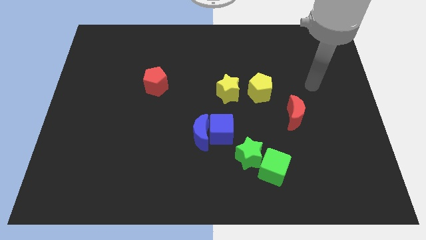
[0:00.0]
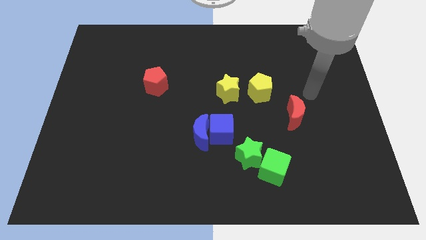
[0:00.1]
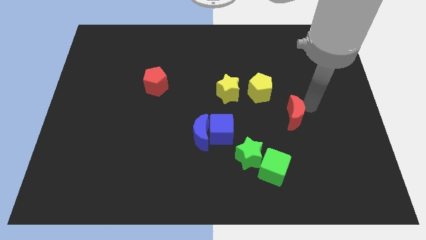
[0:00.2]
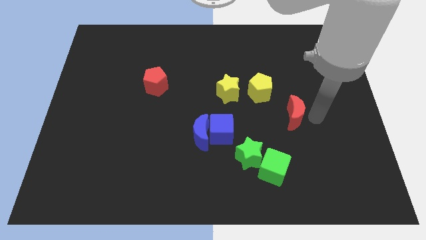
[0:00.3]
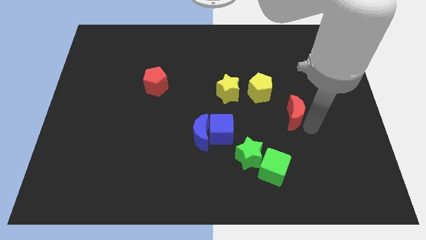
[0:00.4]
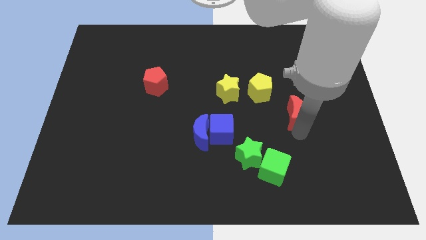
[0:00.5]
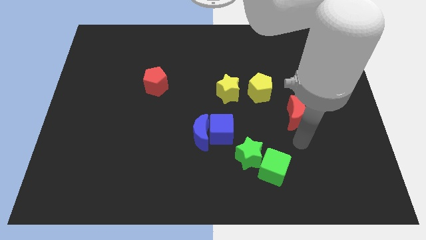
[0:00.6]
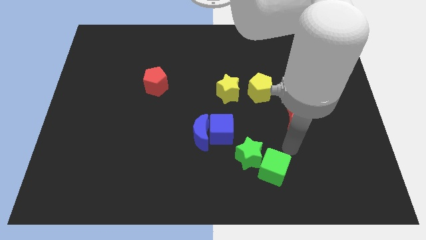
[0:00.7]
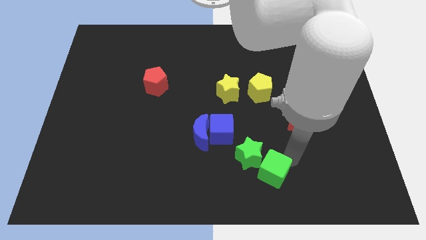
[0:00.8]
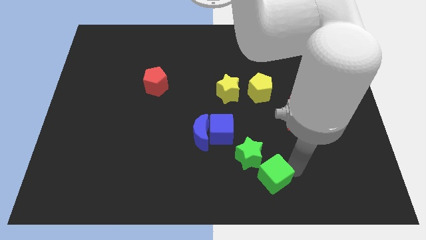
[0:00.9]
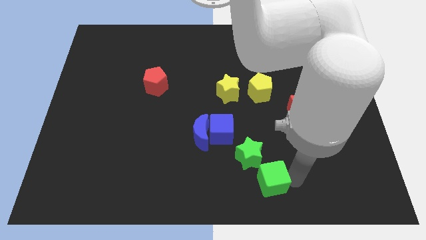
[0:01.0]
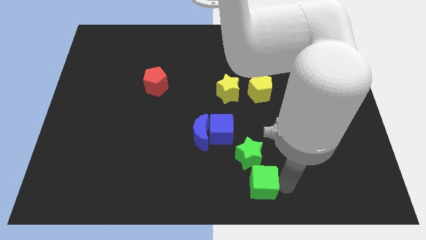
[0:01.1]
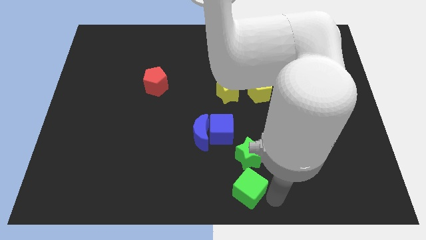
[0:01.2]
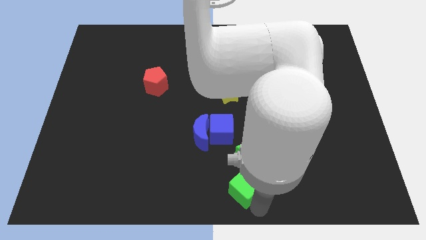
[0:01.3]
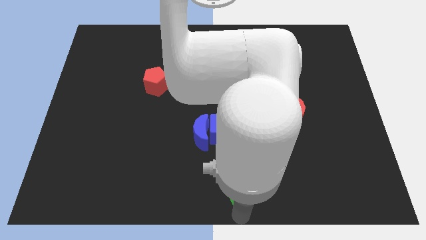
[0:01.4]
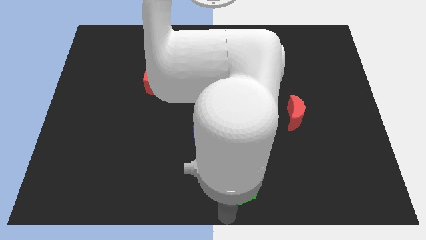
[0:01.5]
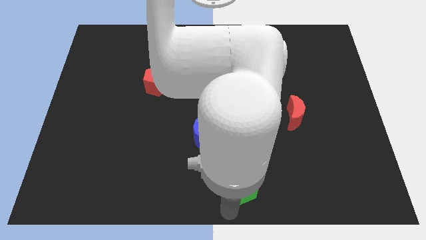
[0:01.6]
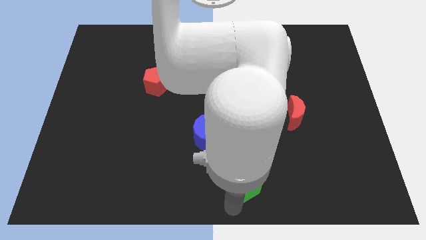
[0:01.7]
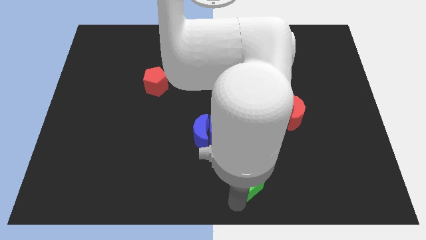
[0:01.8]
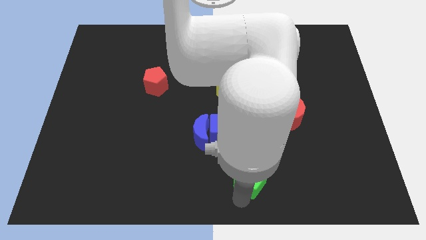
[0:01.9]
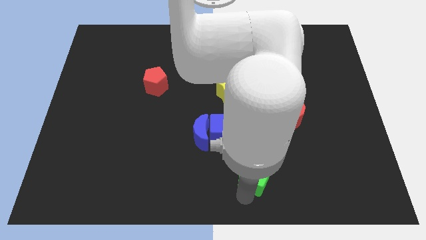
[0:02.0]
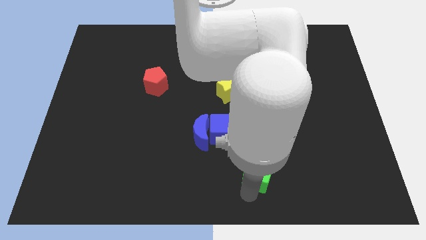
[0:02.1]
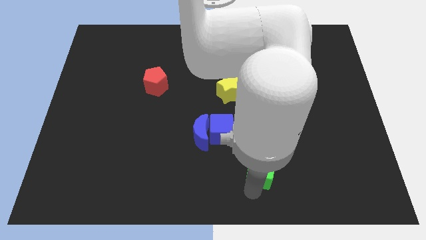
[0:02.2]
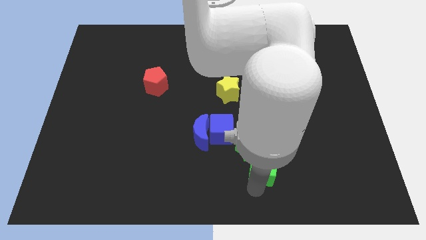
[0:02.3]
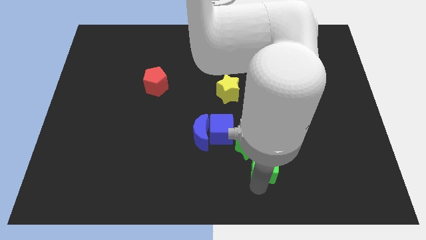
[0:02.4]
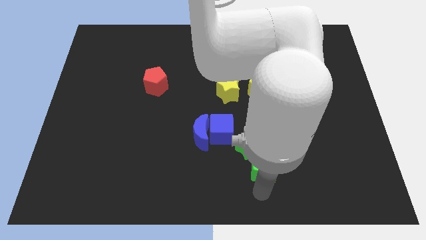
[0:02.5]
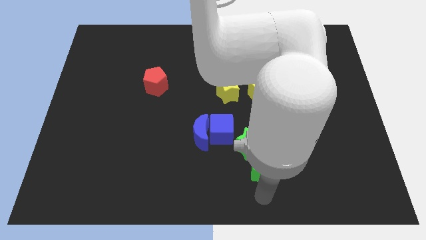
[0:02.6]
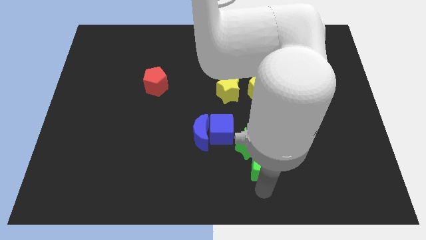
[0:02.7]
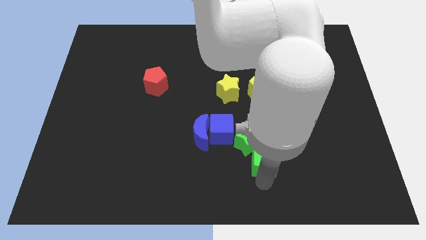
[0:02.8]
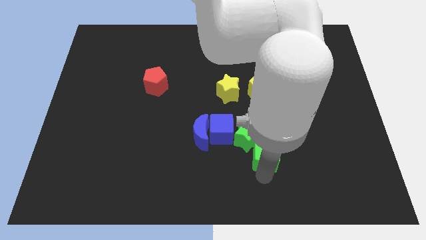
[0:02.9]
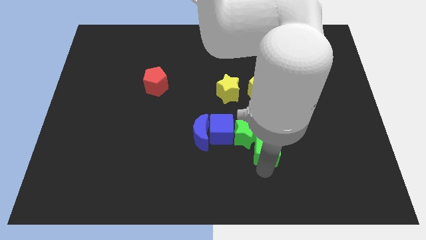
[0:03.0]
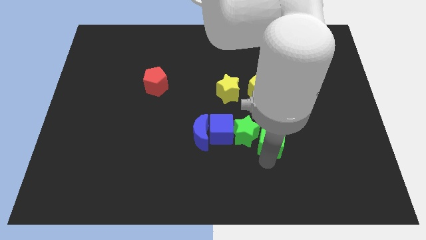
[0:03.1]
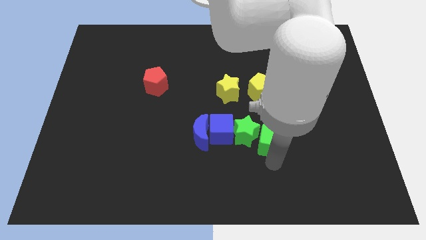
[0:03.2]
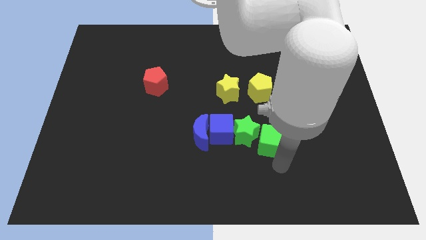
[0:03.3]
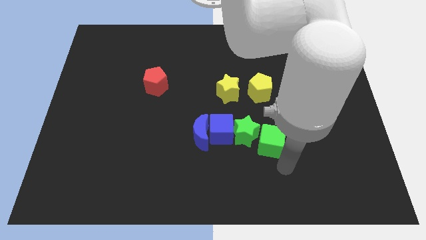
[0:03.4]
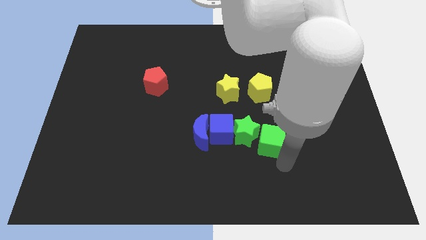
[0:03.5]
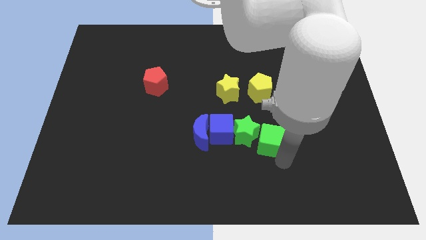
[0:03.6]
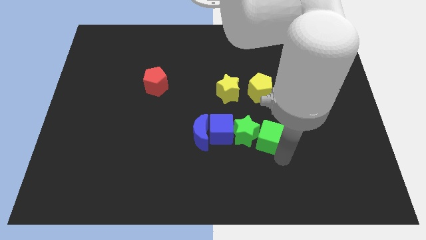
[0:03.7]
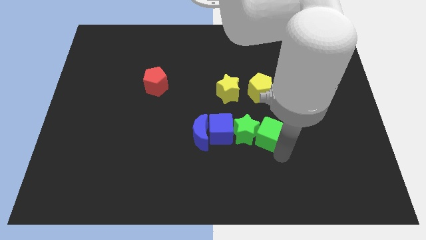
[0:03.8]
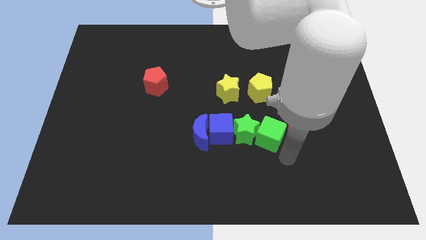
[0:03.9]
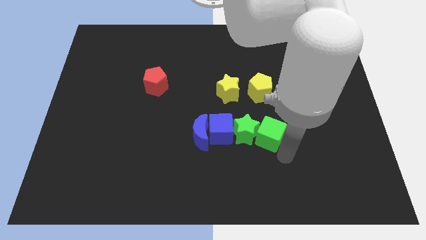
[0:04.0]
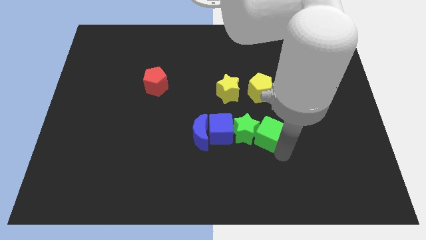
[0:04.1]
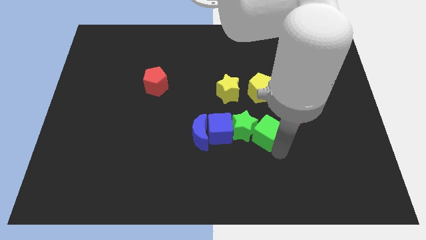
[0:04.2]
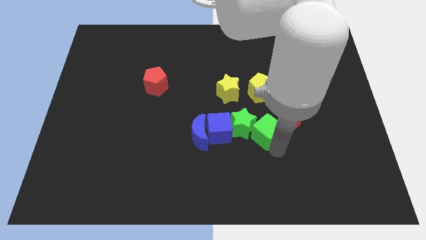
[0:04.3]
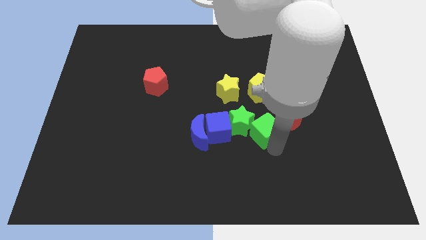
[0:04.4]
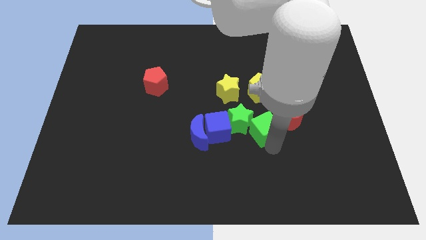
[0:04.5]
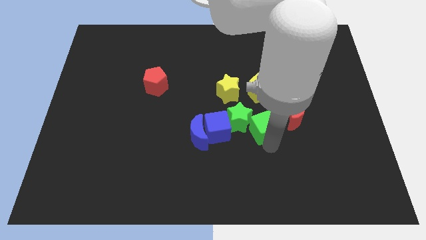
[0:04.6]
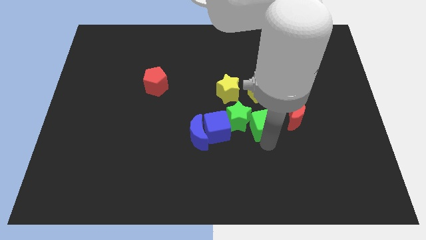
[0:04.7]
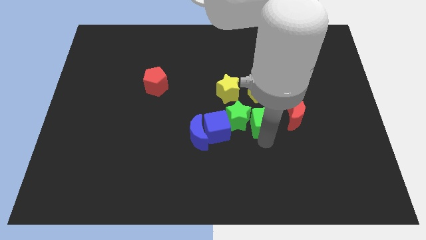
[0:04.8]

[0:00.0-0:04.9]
put the green cube diagonally down and to the right of the yellow star

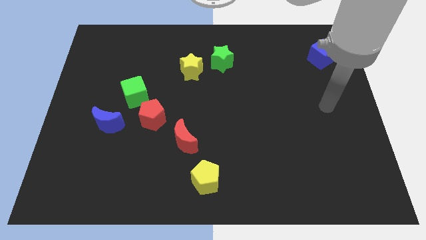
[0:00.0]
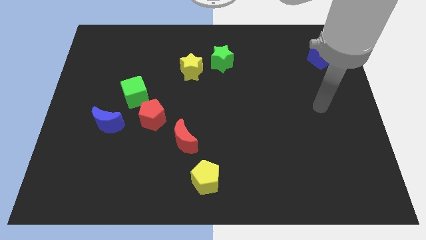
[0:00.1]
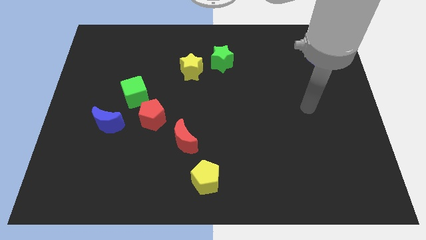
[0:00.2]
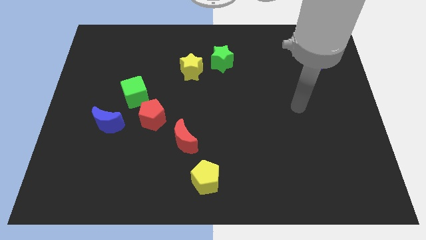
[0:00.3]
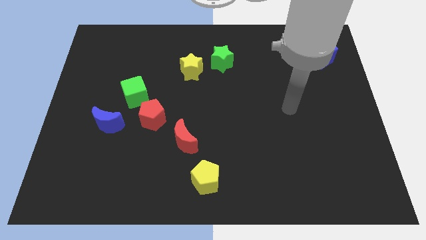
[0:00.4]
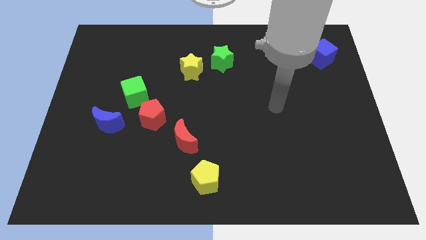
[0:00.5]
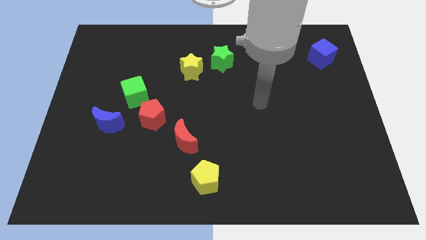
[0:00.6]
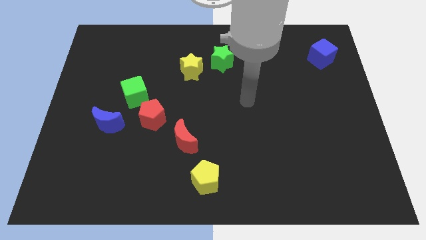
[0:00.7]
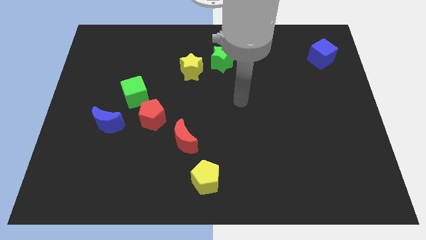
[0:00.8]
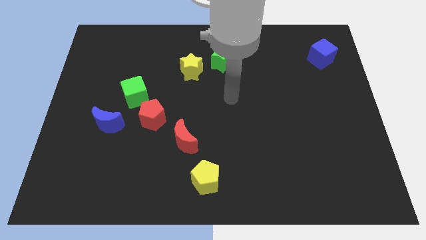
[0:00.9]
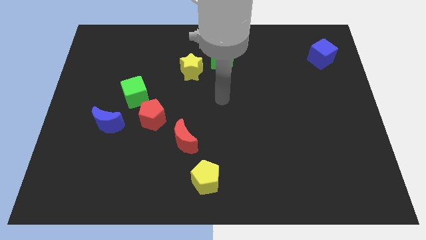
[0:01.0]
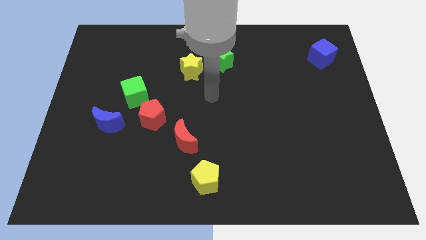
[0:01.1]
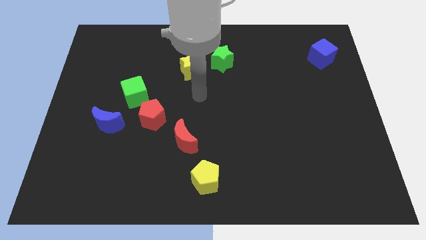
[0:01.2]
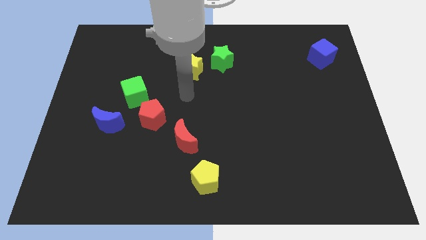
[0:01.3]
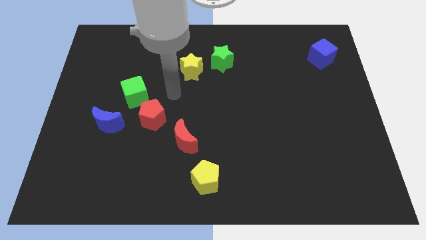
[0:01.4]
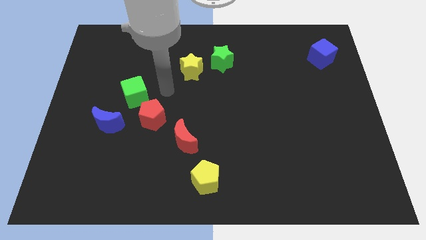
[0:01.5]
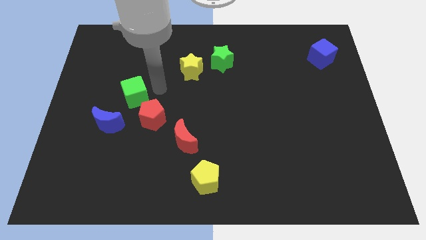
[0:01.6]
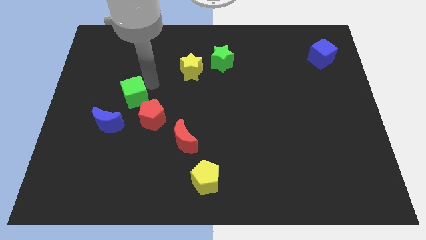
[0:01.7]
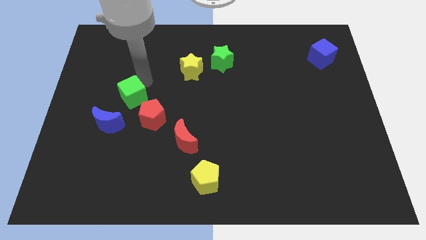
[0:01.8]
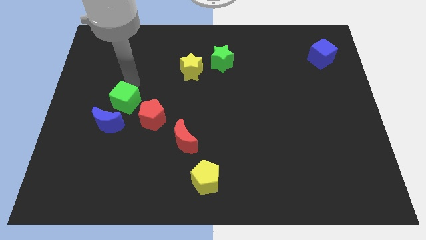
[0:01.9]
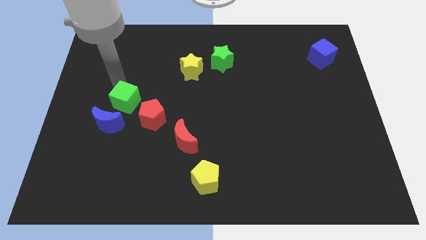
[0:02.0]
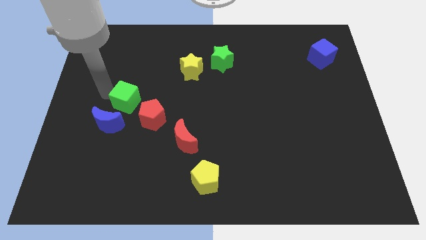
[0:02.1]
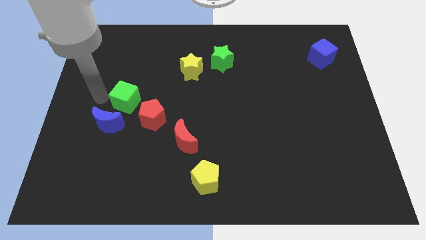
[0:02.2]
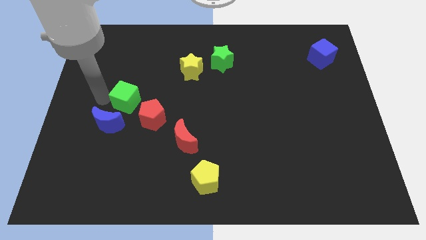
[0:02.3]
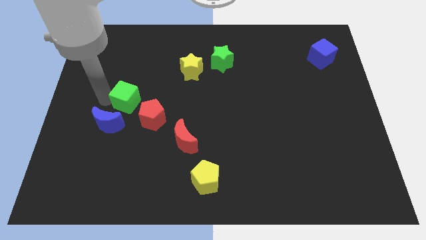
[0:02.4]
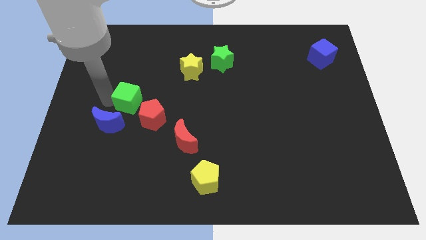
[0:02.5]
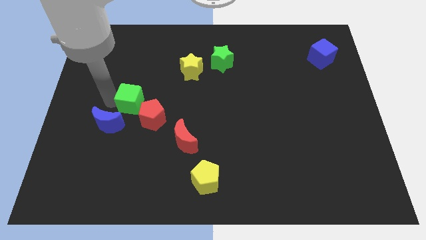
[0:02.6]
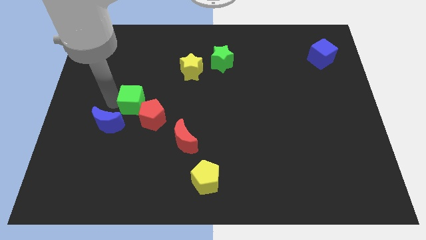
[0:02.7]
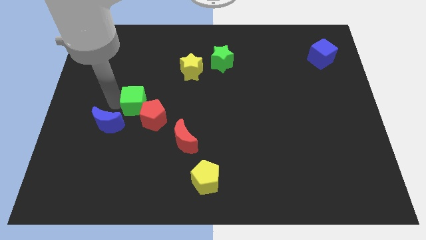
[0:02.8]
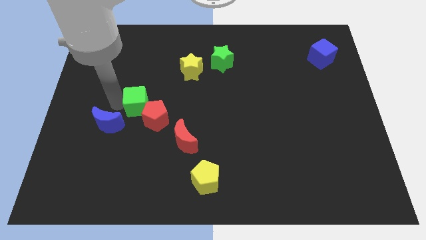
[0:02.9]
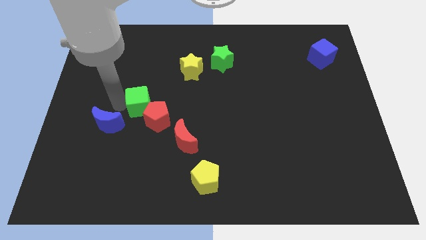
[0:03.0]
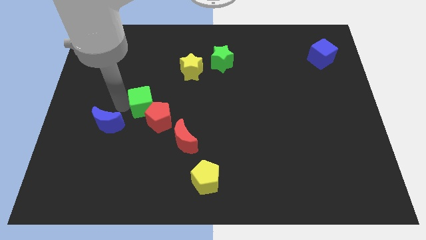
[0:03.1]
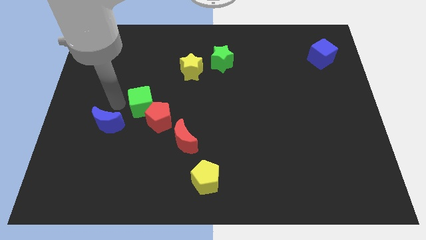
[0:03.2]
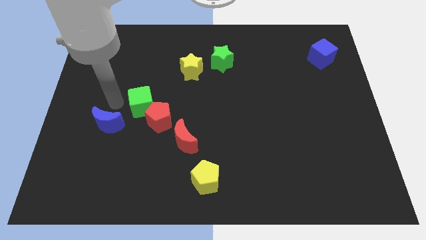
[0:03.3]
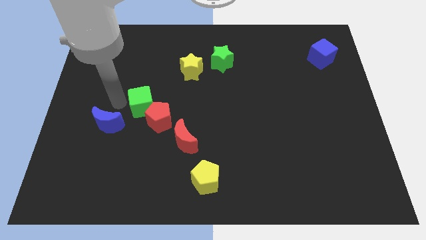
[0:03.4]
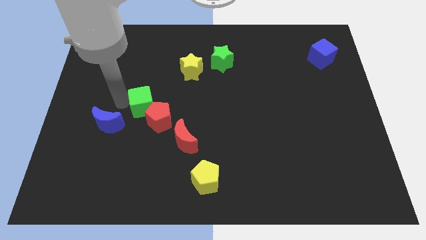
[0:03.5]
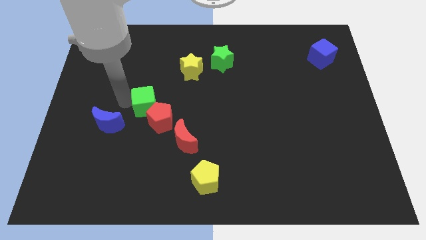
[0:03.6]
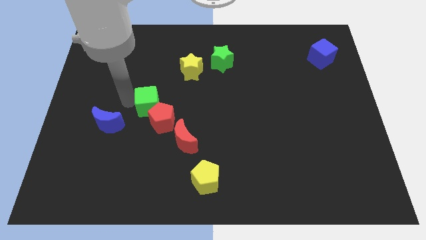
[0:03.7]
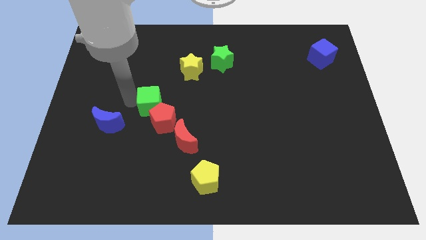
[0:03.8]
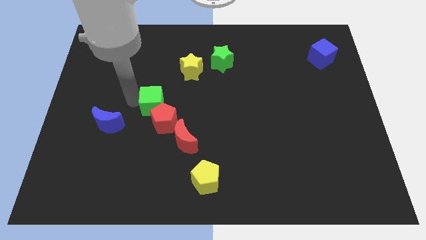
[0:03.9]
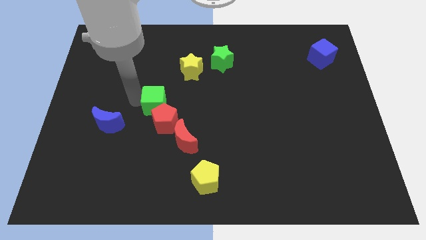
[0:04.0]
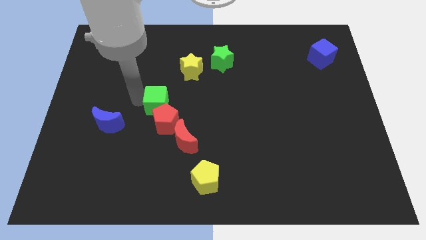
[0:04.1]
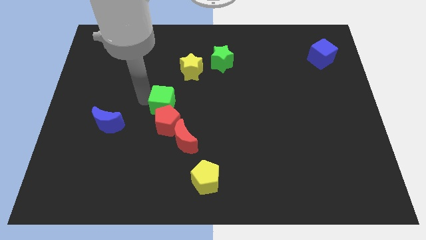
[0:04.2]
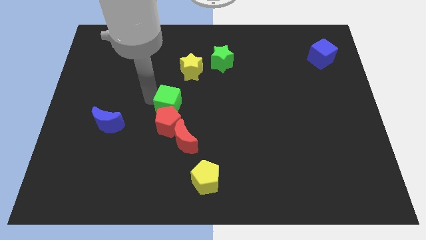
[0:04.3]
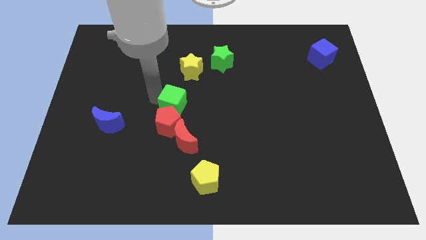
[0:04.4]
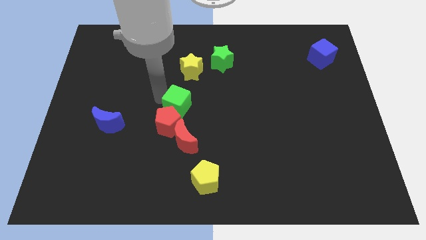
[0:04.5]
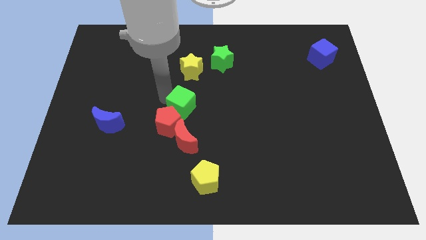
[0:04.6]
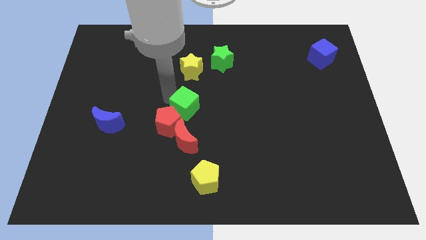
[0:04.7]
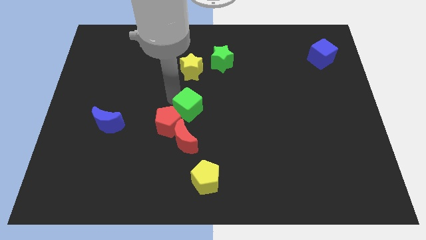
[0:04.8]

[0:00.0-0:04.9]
push the green cube right of the red pentagon
